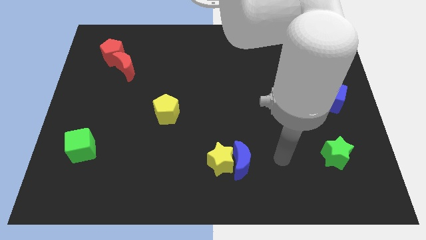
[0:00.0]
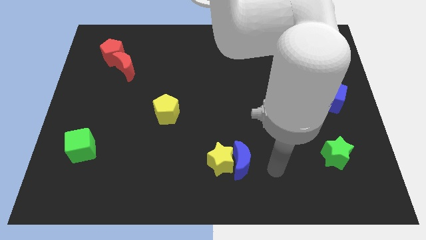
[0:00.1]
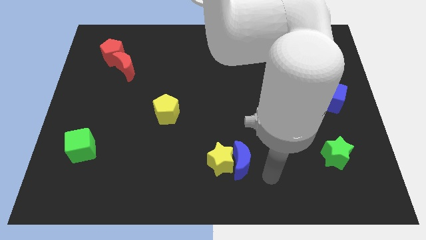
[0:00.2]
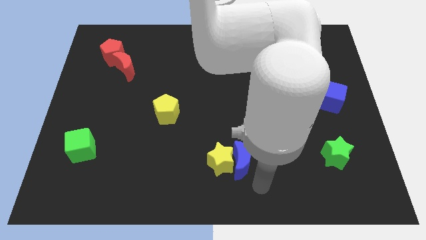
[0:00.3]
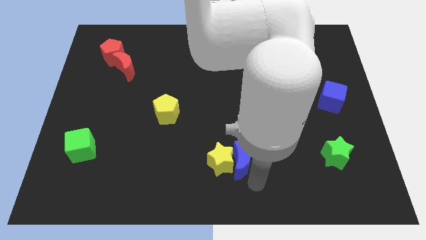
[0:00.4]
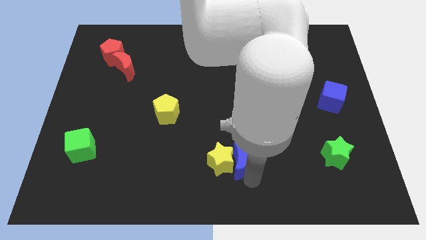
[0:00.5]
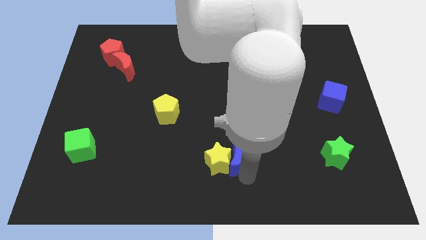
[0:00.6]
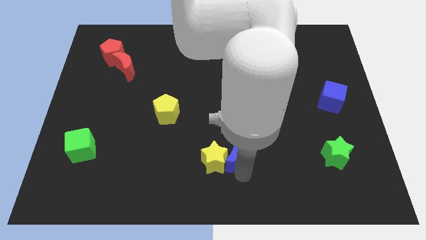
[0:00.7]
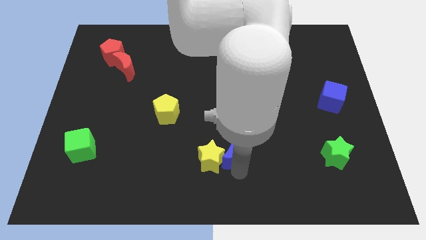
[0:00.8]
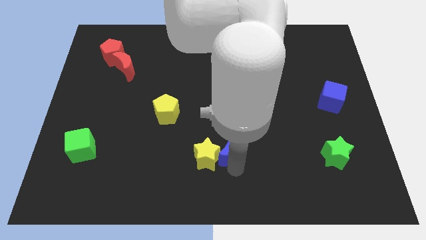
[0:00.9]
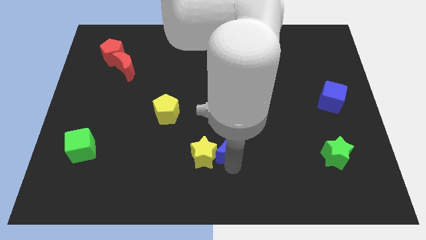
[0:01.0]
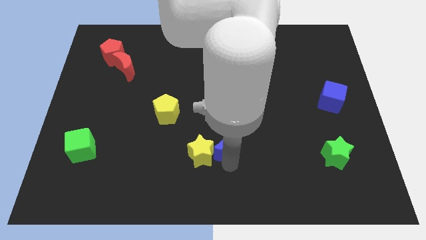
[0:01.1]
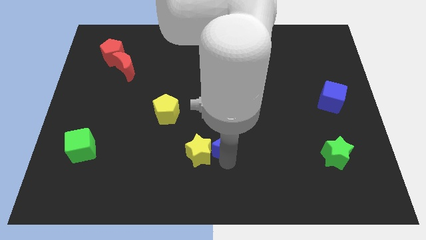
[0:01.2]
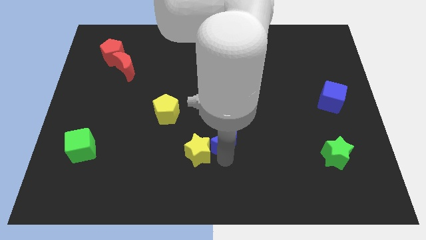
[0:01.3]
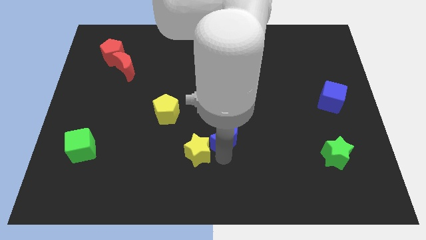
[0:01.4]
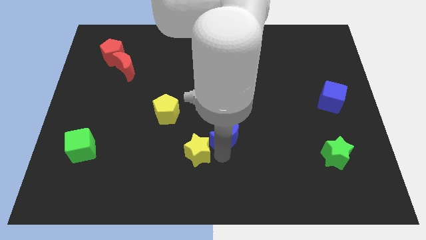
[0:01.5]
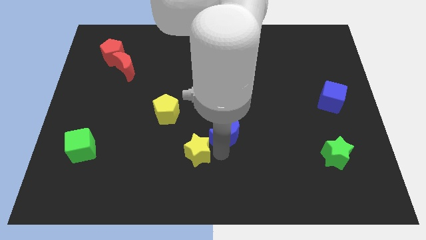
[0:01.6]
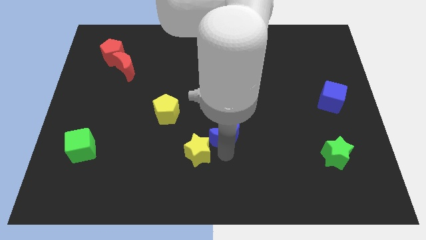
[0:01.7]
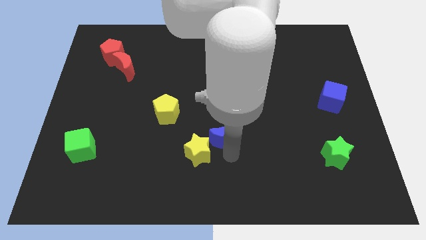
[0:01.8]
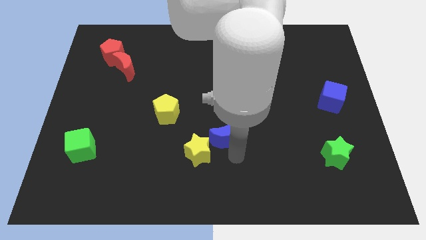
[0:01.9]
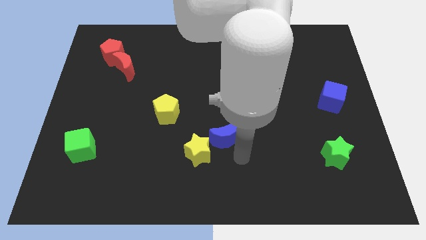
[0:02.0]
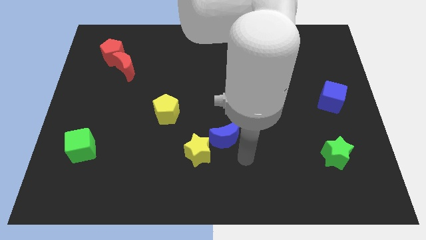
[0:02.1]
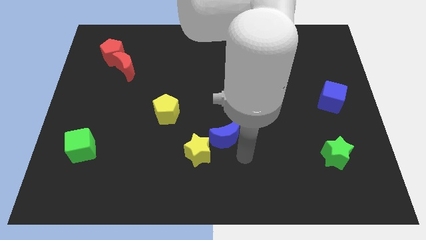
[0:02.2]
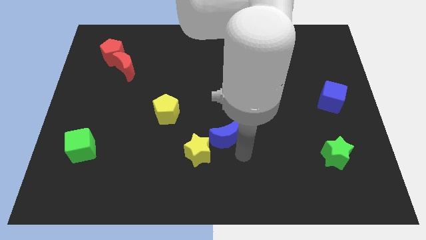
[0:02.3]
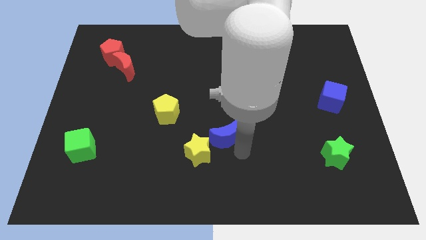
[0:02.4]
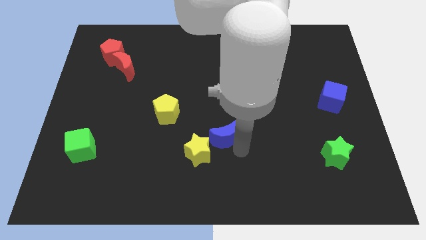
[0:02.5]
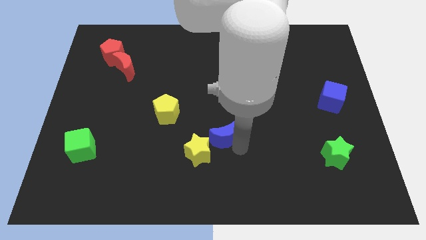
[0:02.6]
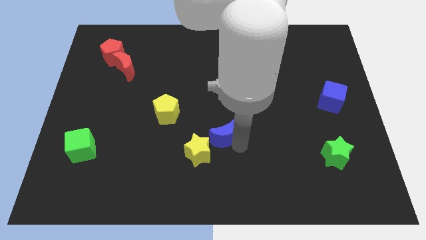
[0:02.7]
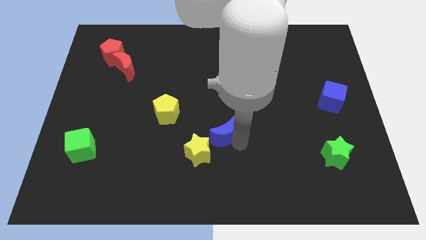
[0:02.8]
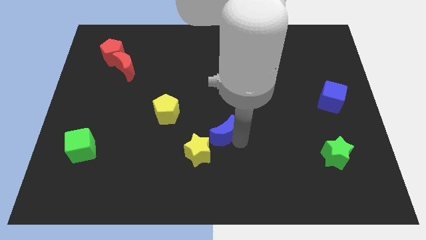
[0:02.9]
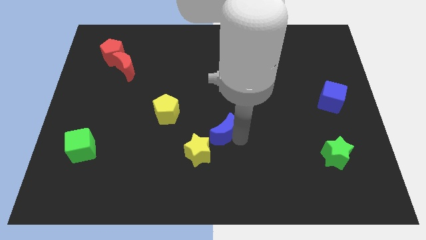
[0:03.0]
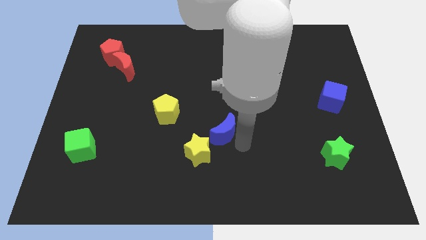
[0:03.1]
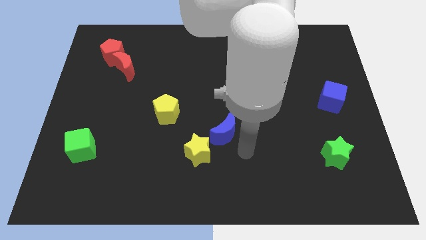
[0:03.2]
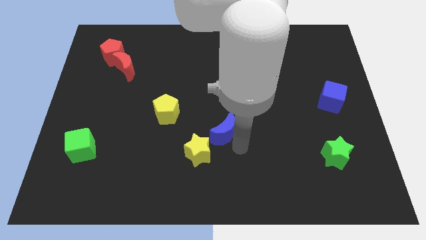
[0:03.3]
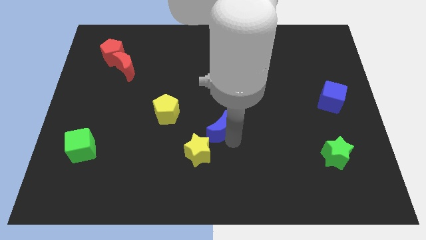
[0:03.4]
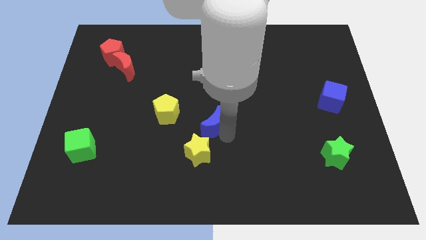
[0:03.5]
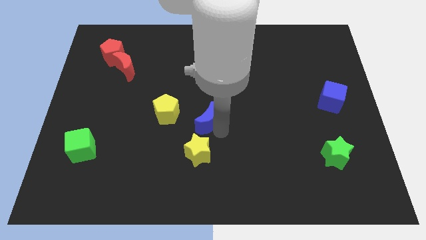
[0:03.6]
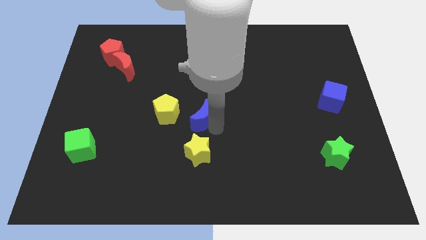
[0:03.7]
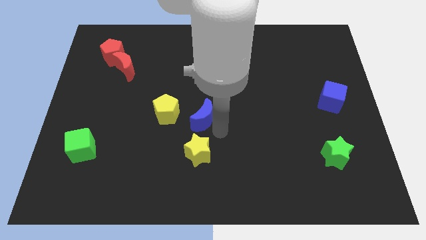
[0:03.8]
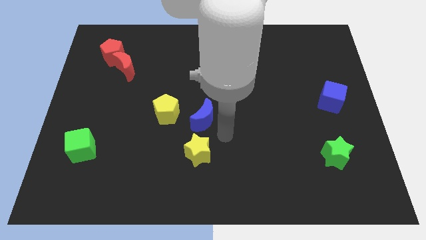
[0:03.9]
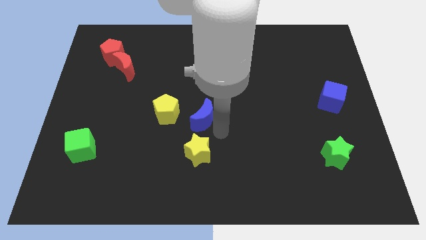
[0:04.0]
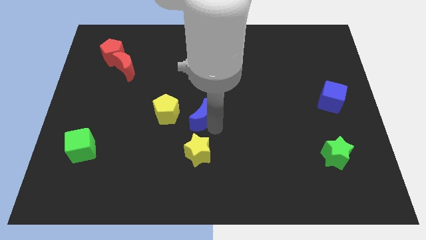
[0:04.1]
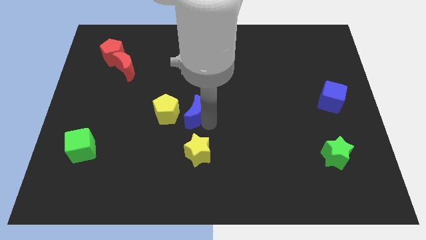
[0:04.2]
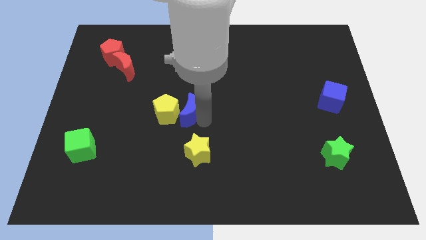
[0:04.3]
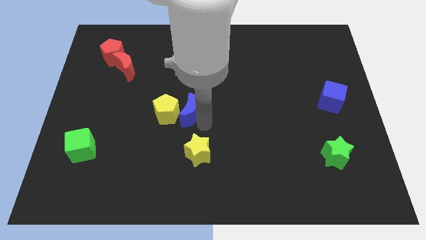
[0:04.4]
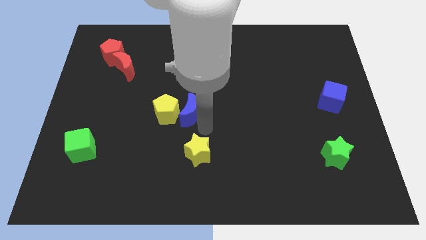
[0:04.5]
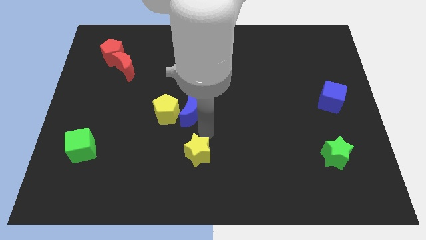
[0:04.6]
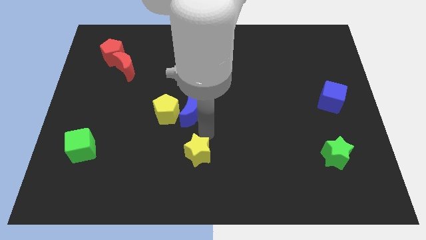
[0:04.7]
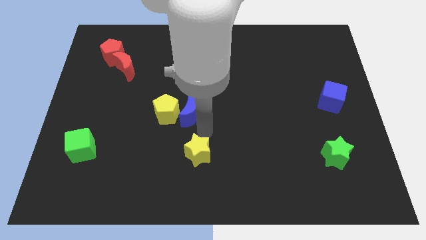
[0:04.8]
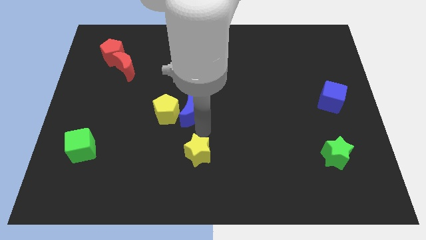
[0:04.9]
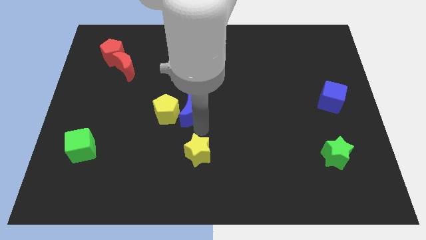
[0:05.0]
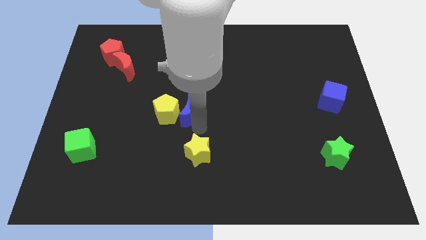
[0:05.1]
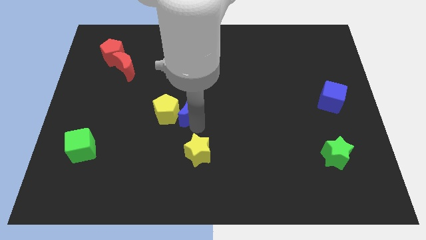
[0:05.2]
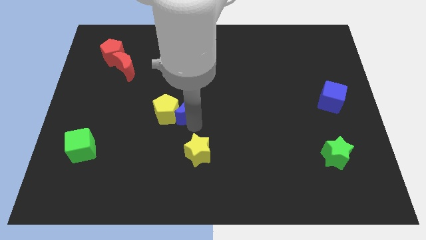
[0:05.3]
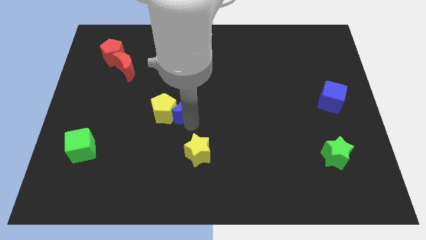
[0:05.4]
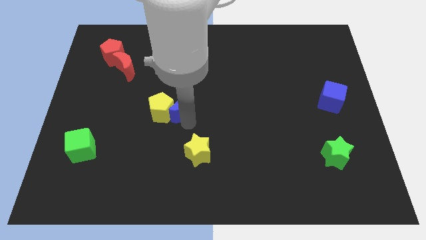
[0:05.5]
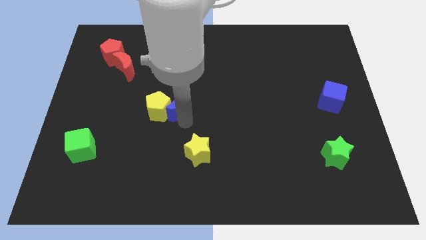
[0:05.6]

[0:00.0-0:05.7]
push the blue moon upwards and left

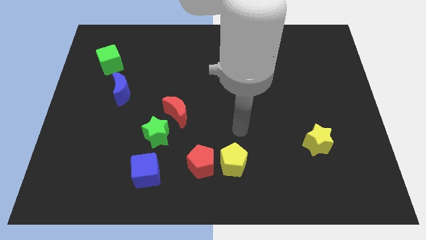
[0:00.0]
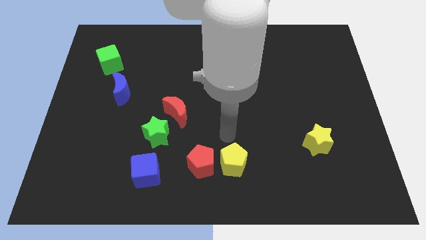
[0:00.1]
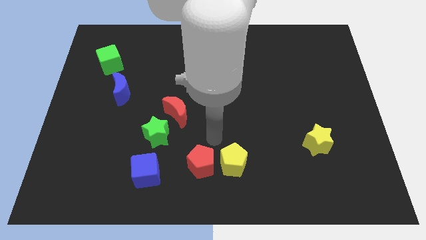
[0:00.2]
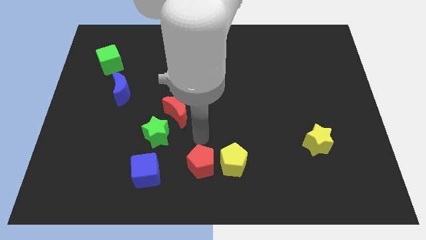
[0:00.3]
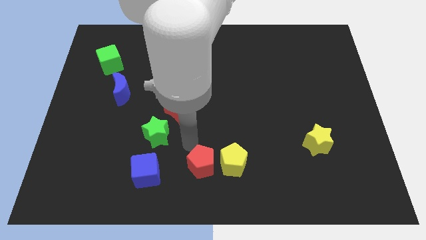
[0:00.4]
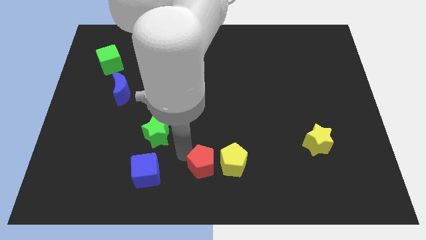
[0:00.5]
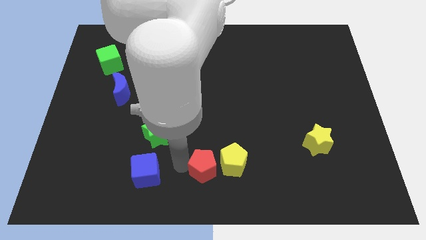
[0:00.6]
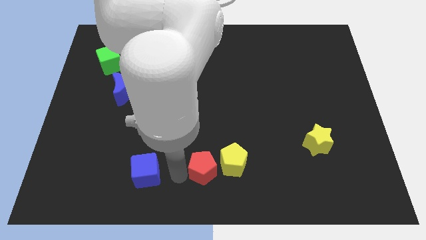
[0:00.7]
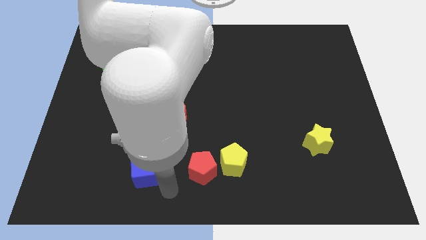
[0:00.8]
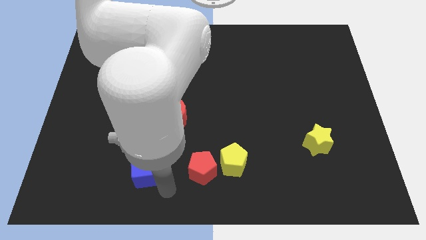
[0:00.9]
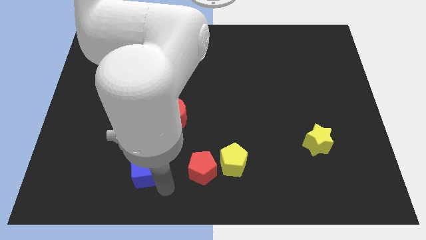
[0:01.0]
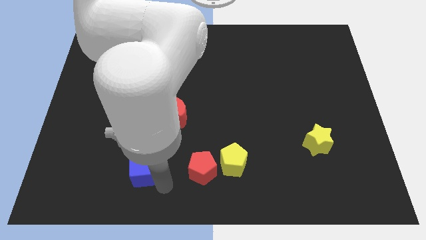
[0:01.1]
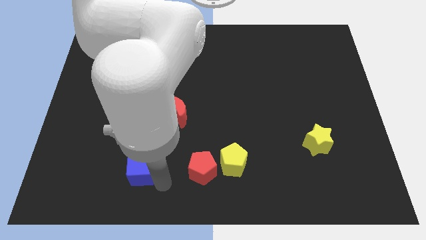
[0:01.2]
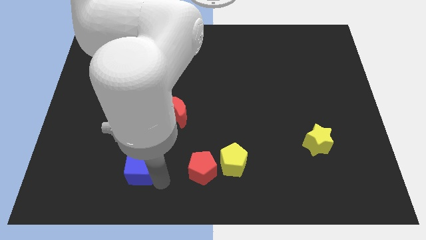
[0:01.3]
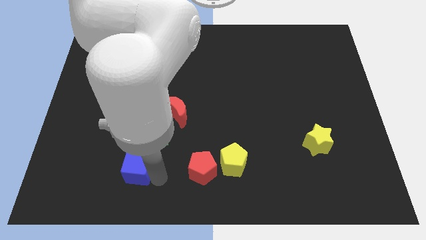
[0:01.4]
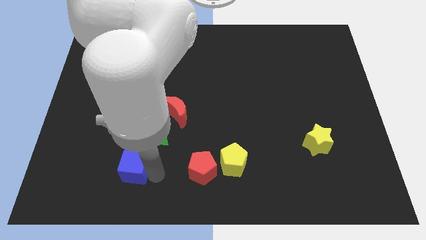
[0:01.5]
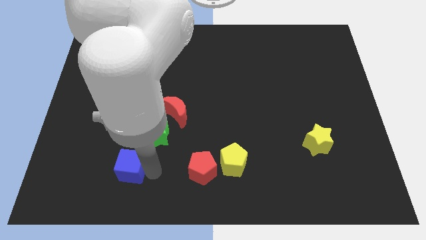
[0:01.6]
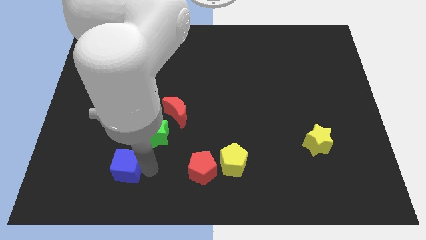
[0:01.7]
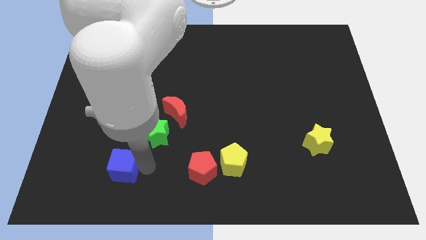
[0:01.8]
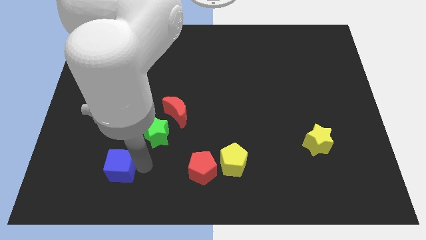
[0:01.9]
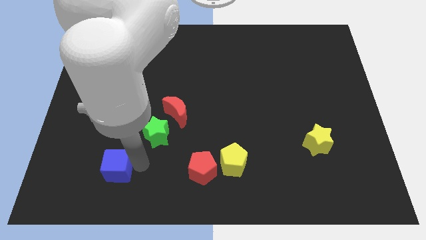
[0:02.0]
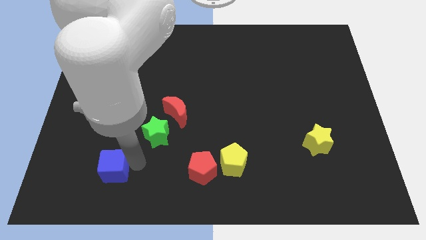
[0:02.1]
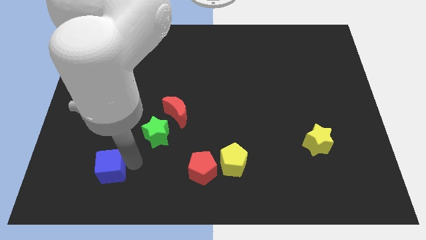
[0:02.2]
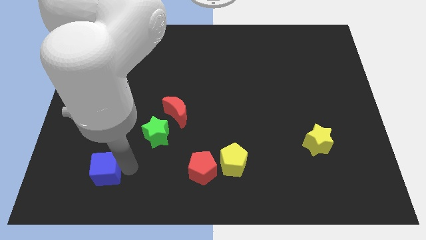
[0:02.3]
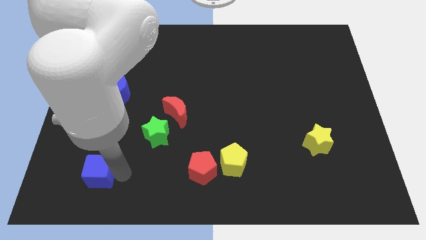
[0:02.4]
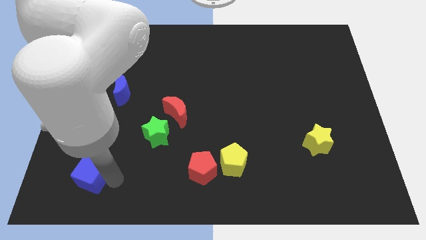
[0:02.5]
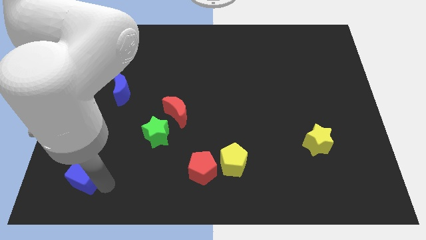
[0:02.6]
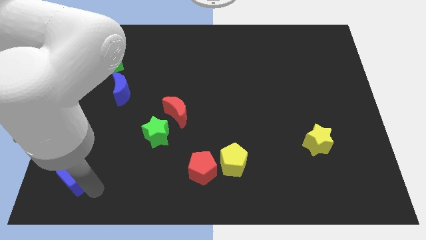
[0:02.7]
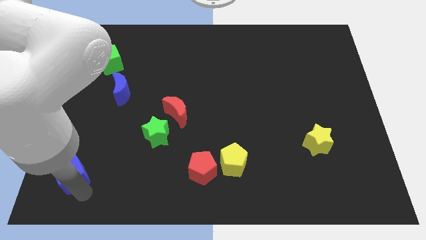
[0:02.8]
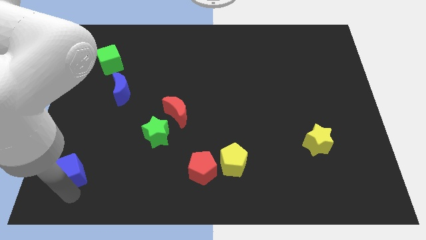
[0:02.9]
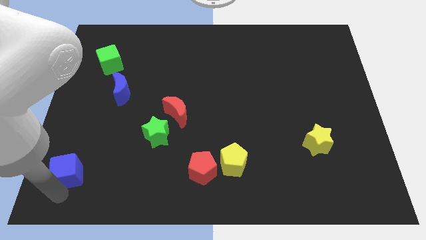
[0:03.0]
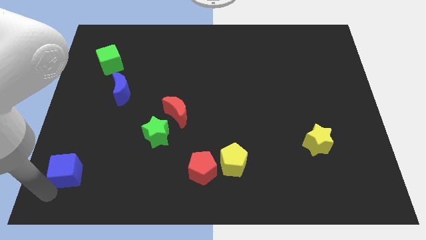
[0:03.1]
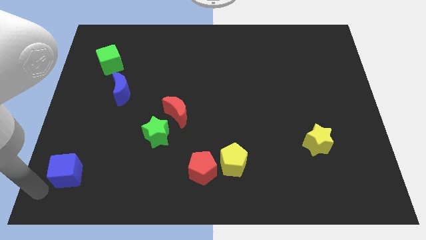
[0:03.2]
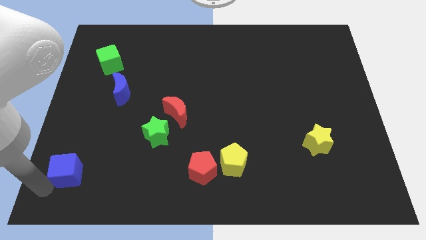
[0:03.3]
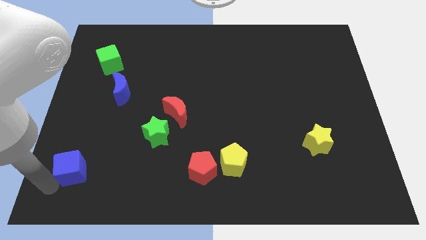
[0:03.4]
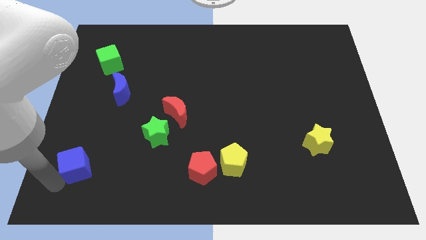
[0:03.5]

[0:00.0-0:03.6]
slightly slide the blue cube up and then to the left
